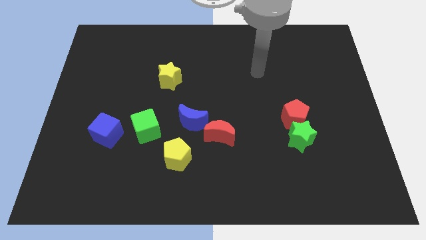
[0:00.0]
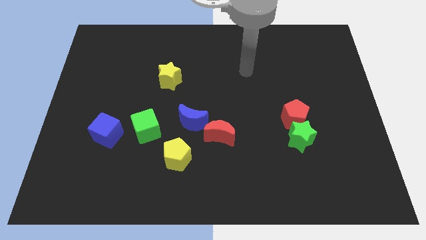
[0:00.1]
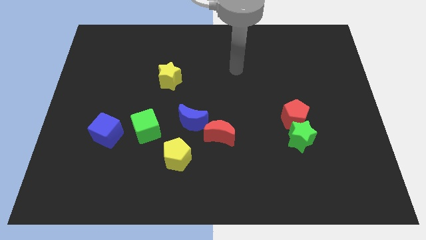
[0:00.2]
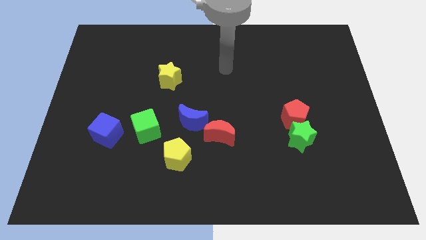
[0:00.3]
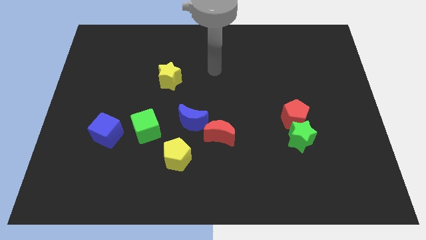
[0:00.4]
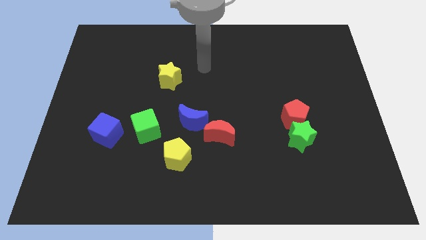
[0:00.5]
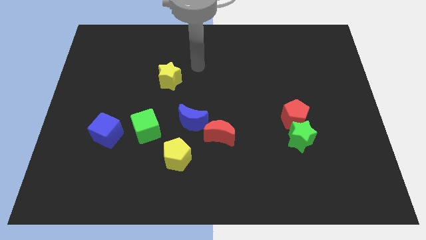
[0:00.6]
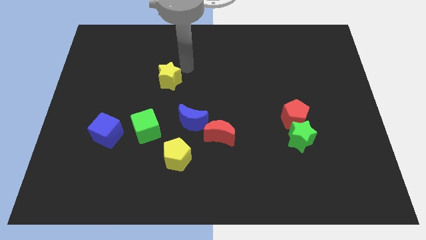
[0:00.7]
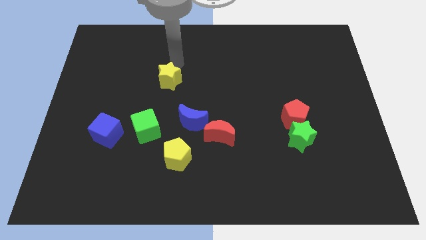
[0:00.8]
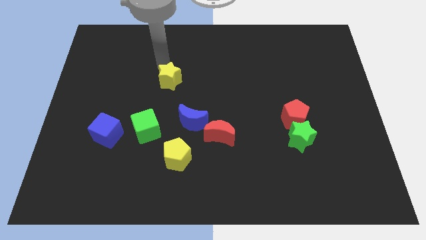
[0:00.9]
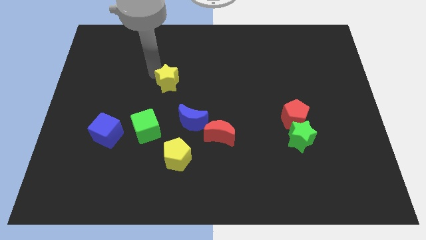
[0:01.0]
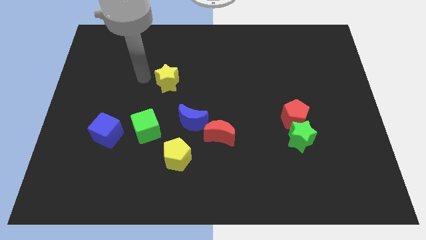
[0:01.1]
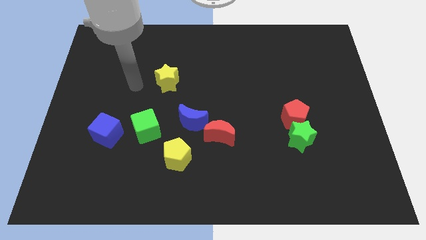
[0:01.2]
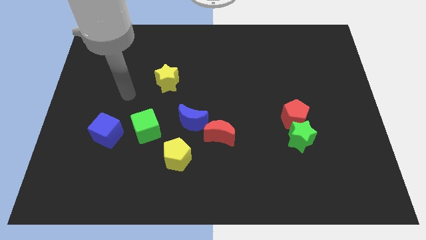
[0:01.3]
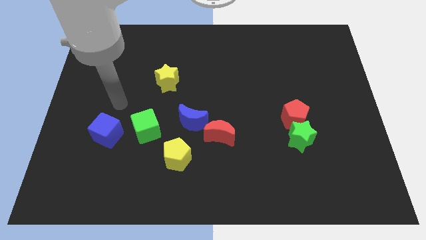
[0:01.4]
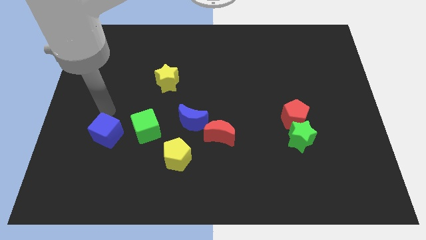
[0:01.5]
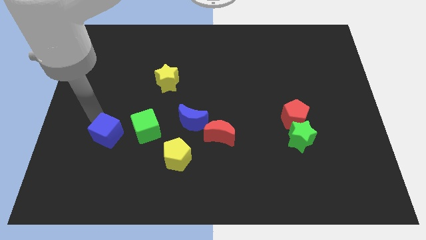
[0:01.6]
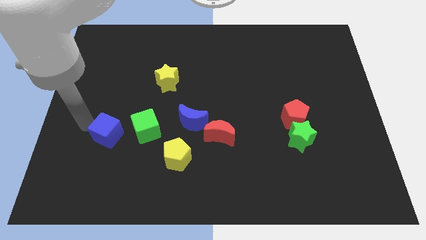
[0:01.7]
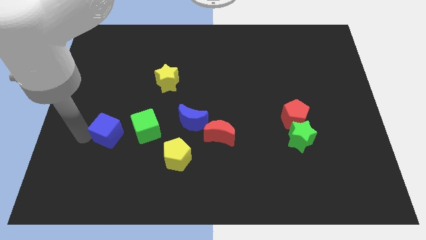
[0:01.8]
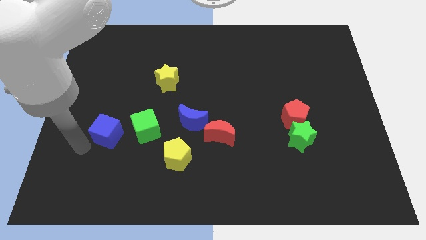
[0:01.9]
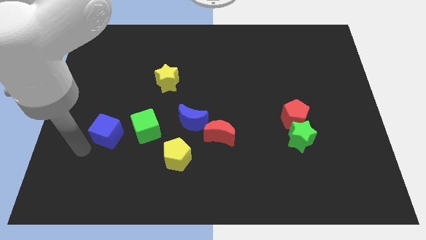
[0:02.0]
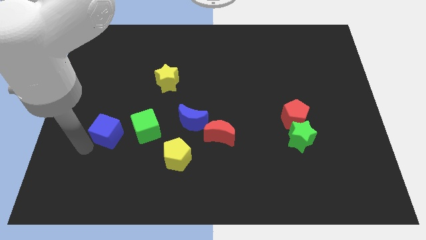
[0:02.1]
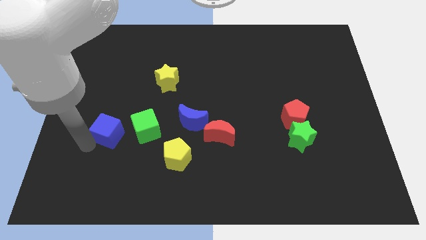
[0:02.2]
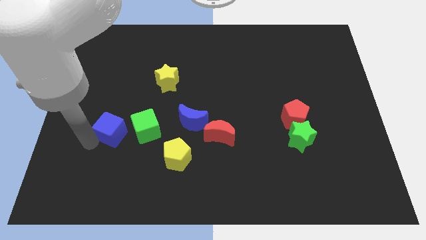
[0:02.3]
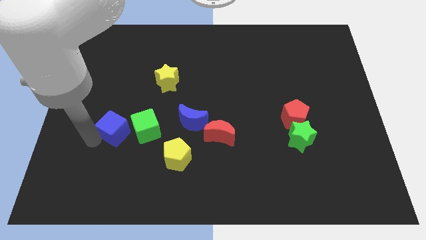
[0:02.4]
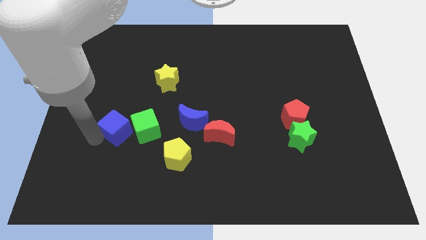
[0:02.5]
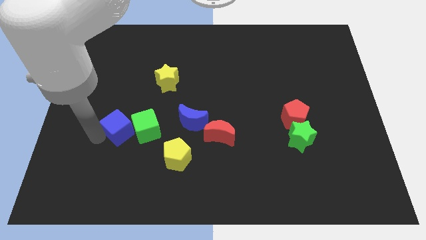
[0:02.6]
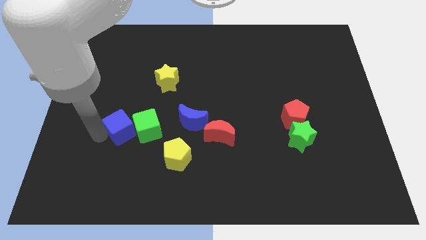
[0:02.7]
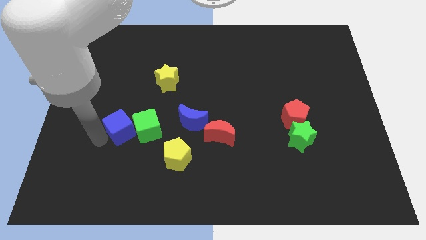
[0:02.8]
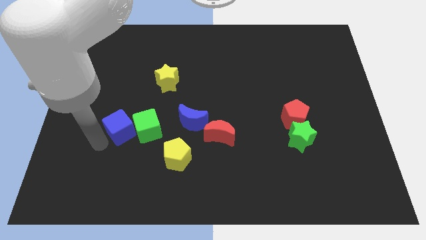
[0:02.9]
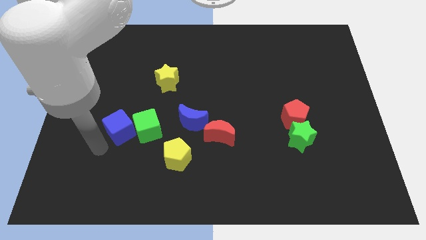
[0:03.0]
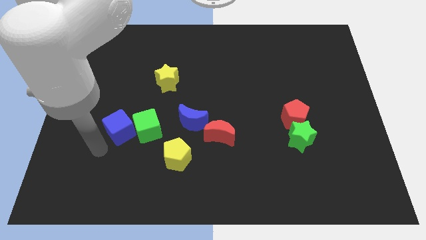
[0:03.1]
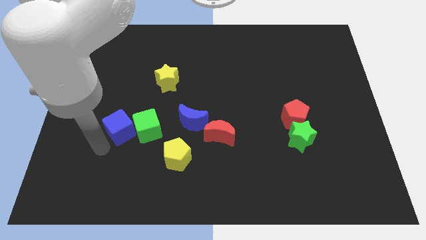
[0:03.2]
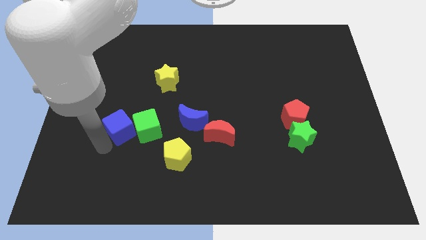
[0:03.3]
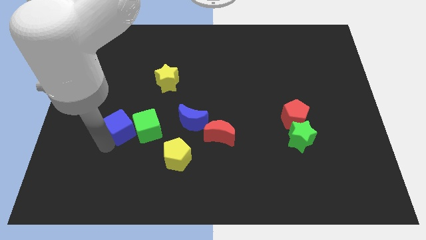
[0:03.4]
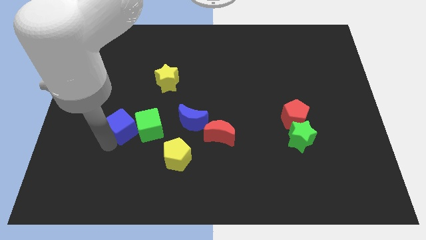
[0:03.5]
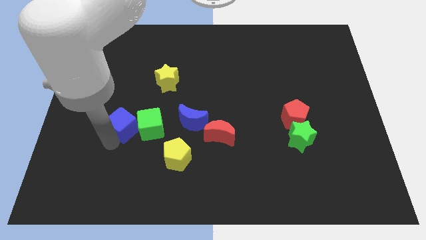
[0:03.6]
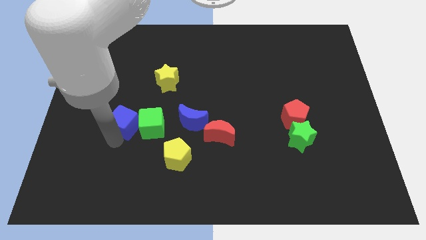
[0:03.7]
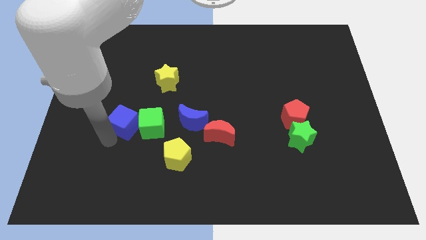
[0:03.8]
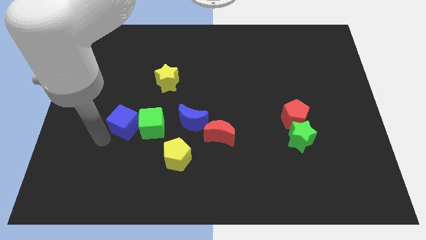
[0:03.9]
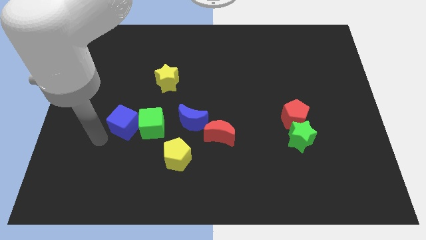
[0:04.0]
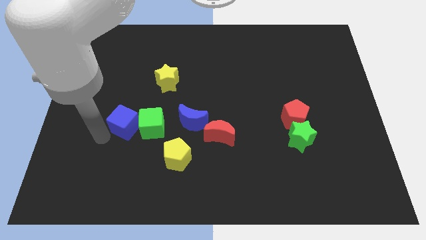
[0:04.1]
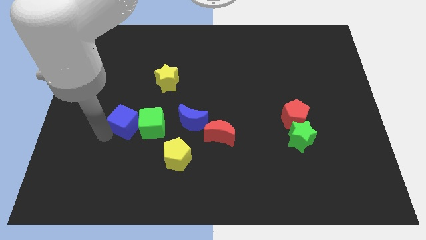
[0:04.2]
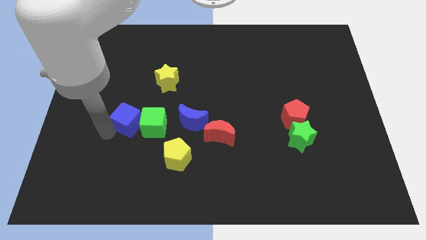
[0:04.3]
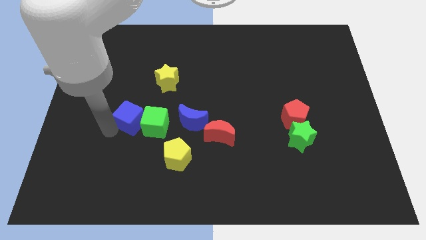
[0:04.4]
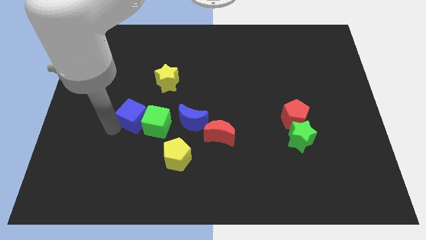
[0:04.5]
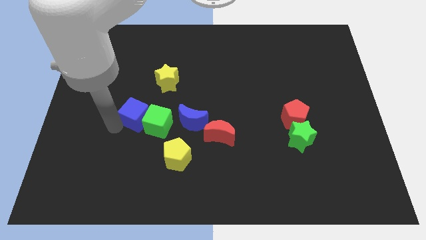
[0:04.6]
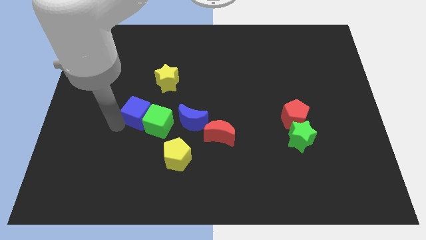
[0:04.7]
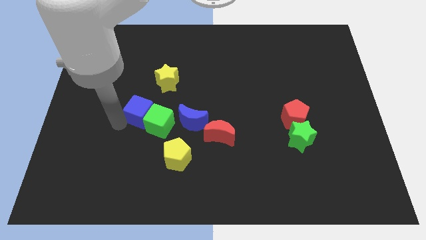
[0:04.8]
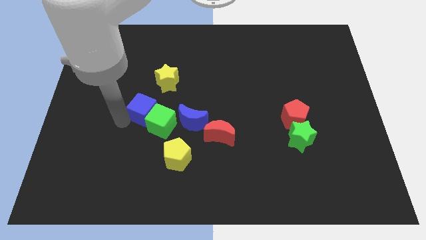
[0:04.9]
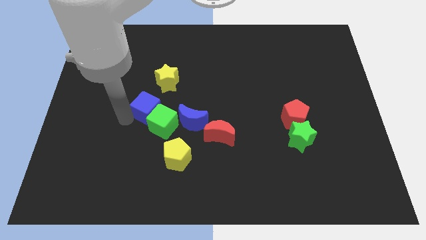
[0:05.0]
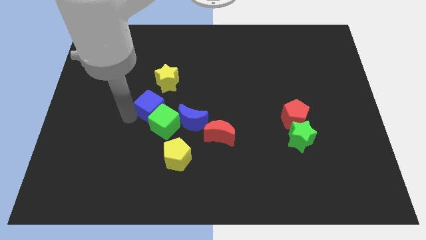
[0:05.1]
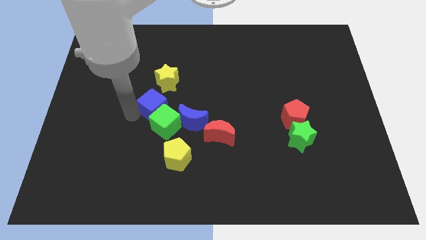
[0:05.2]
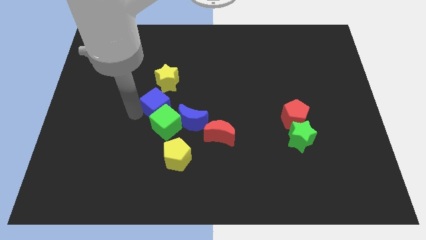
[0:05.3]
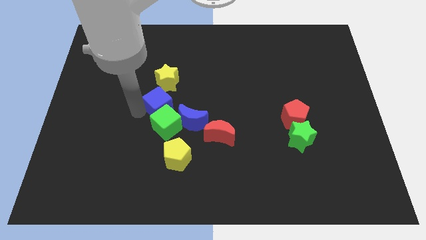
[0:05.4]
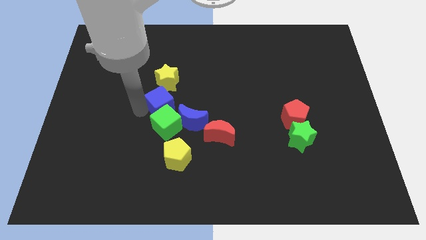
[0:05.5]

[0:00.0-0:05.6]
push the blue cube to the center

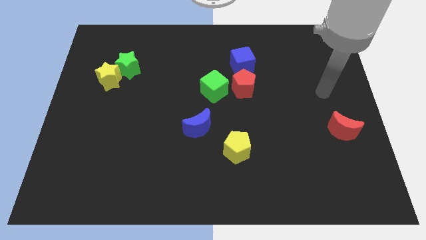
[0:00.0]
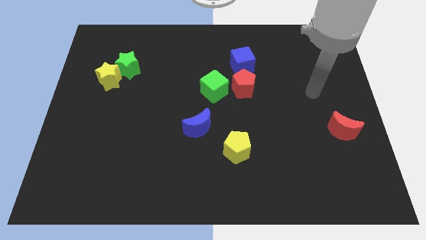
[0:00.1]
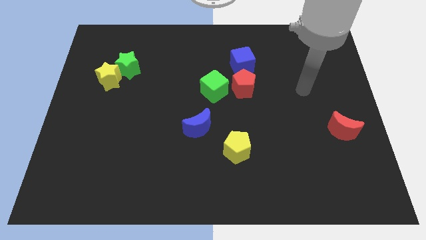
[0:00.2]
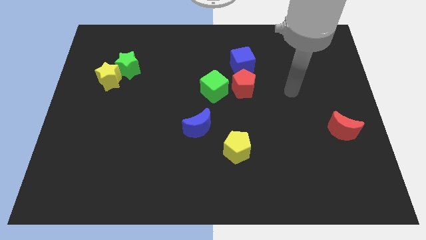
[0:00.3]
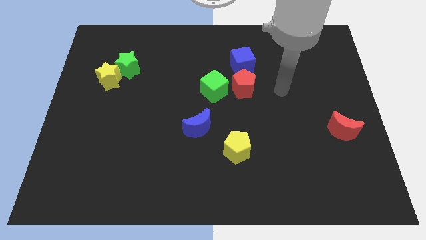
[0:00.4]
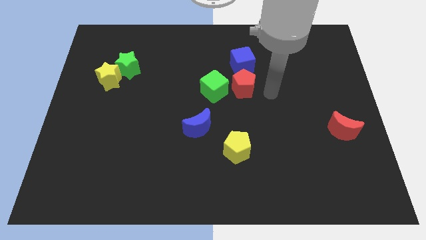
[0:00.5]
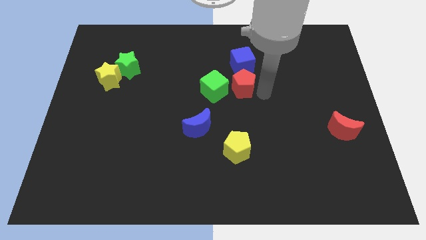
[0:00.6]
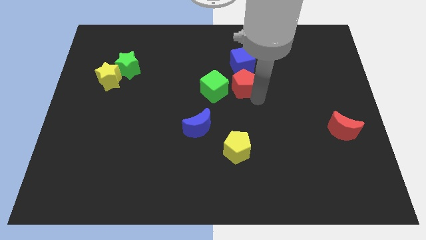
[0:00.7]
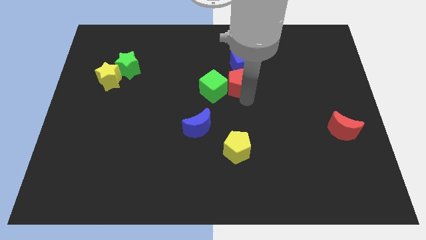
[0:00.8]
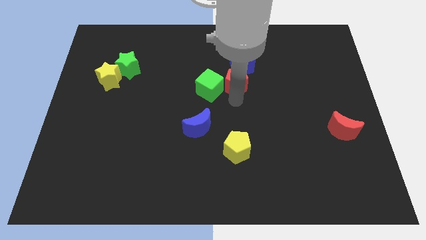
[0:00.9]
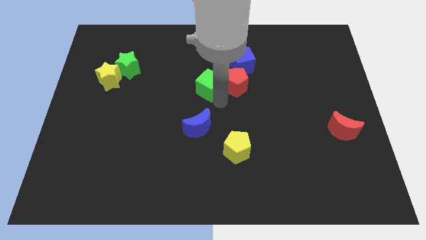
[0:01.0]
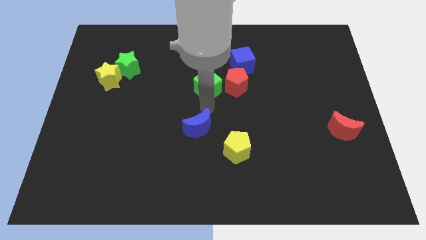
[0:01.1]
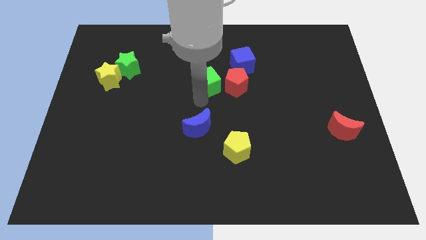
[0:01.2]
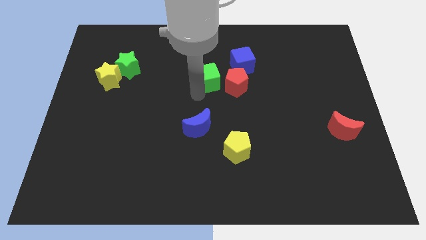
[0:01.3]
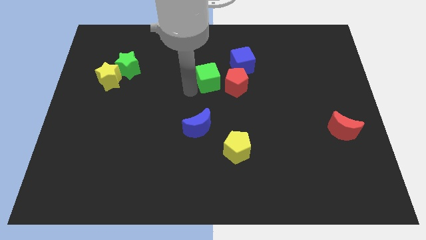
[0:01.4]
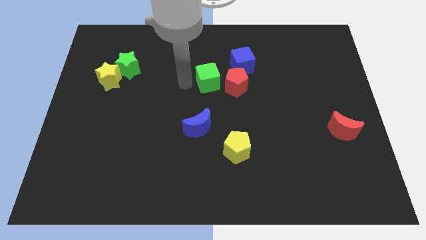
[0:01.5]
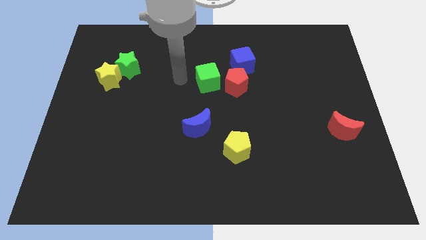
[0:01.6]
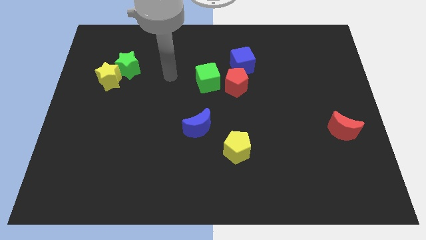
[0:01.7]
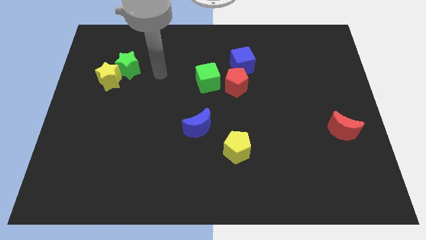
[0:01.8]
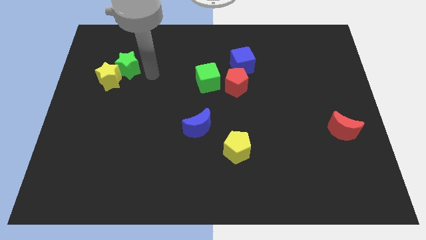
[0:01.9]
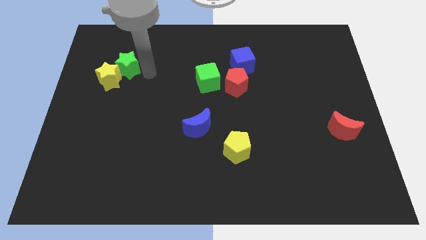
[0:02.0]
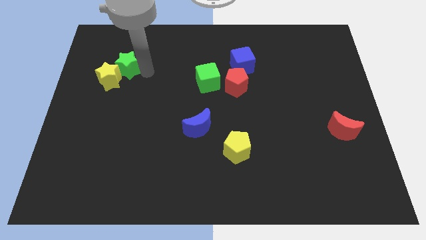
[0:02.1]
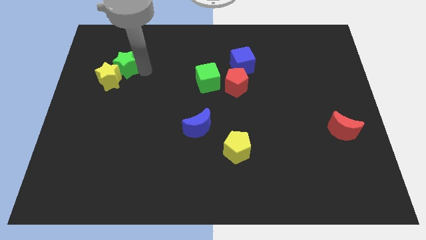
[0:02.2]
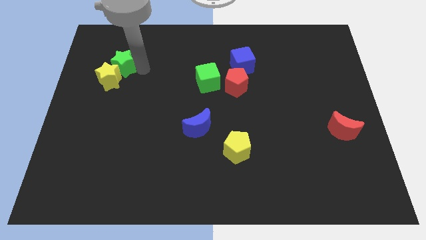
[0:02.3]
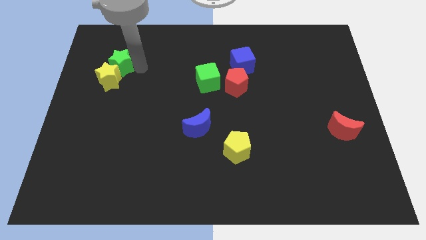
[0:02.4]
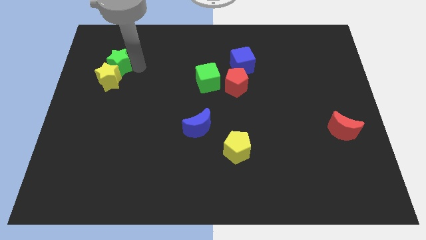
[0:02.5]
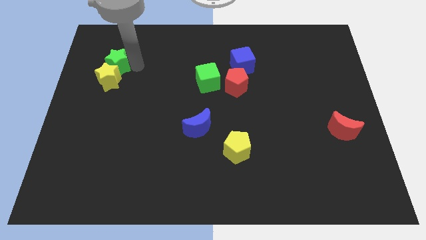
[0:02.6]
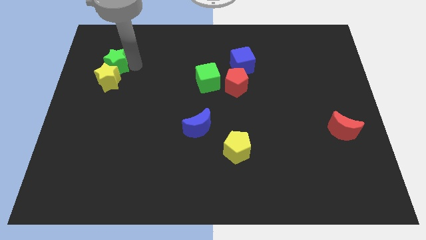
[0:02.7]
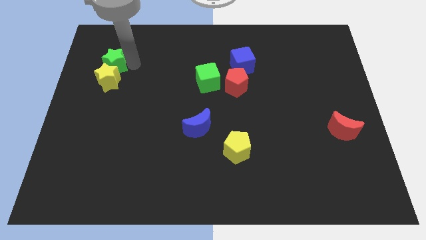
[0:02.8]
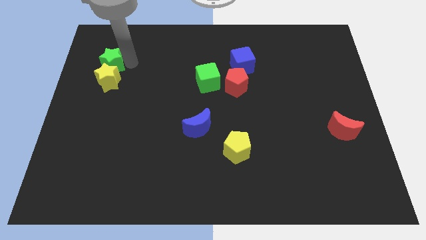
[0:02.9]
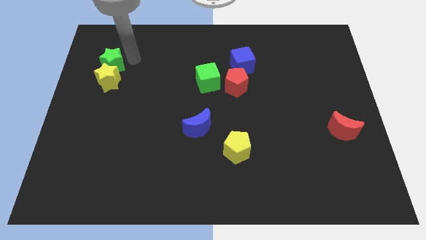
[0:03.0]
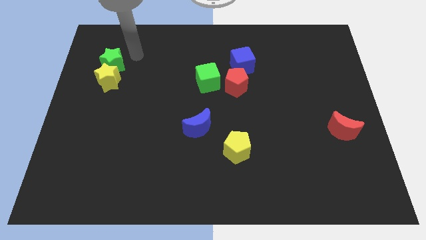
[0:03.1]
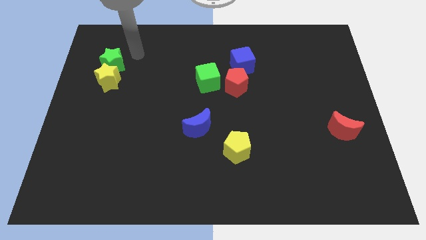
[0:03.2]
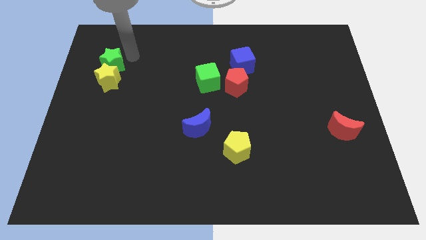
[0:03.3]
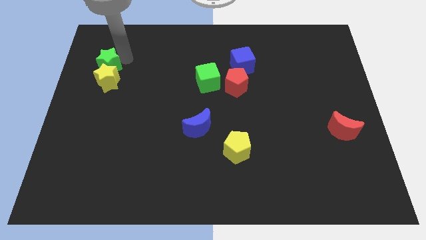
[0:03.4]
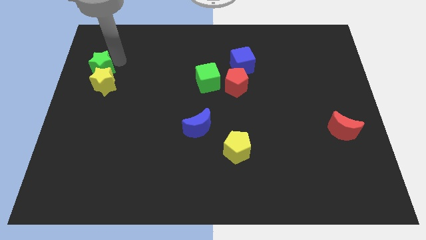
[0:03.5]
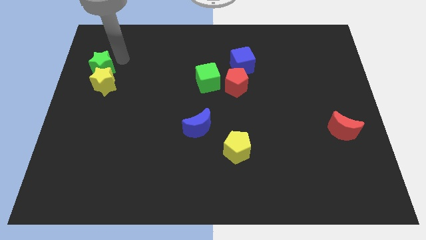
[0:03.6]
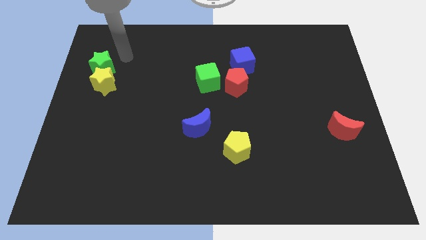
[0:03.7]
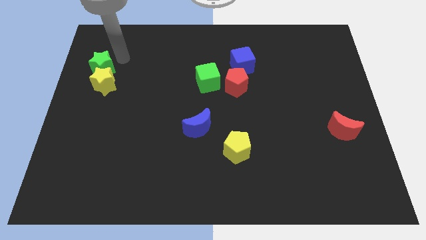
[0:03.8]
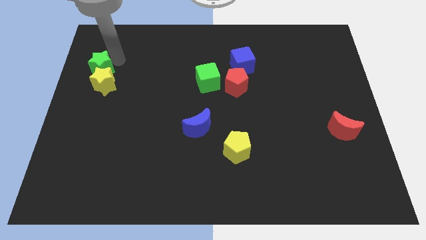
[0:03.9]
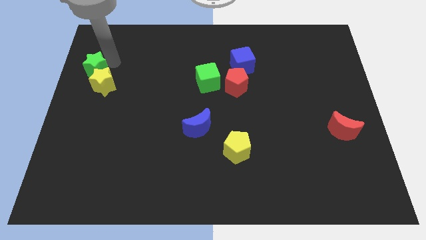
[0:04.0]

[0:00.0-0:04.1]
slide the green star to the center left
